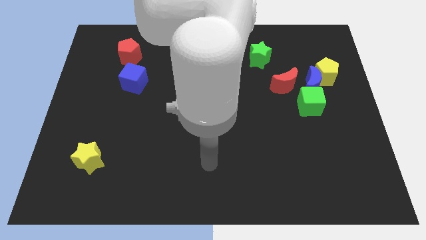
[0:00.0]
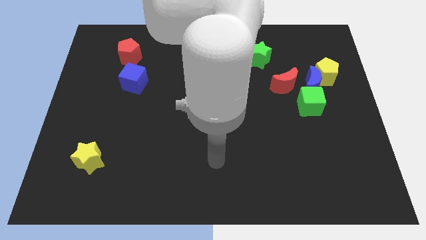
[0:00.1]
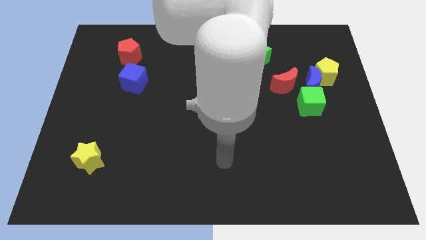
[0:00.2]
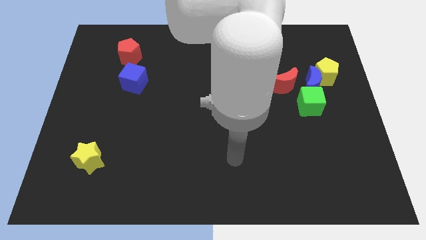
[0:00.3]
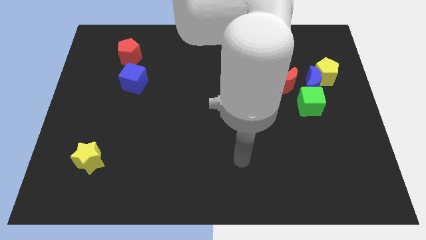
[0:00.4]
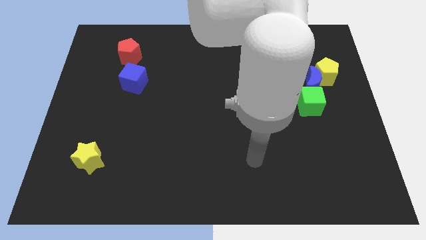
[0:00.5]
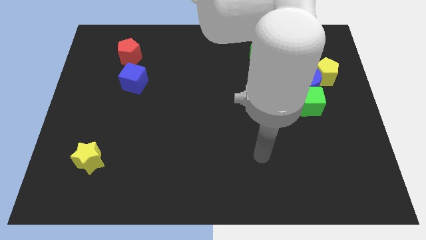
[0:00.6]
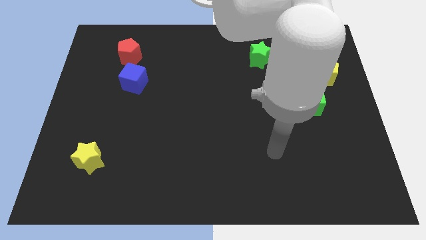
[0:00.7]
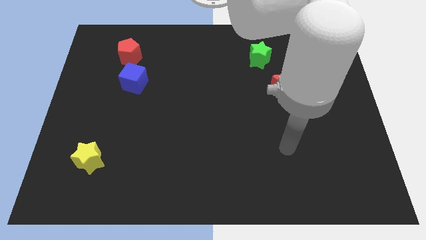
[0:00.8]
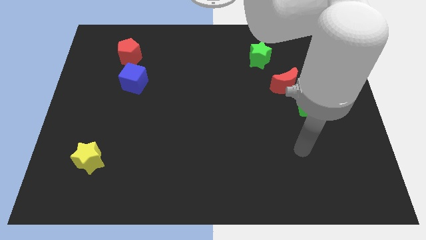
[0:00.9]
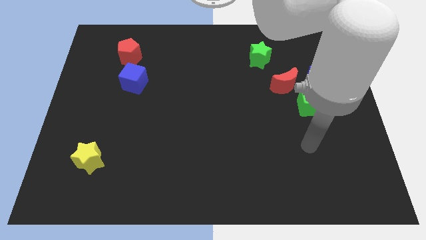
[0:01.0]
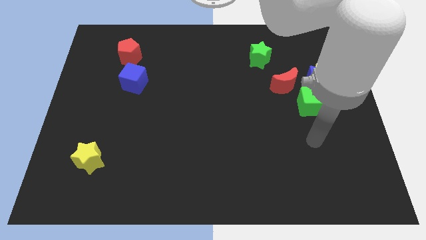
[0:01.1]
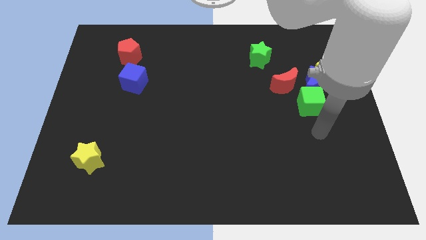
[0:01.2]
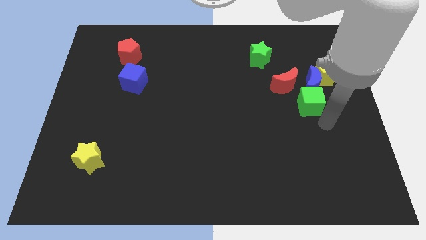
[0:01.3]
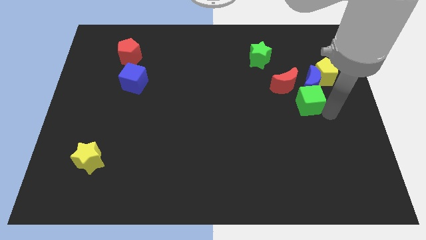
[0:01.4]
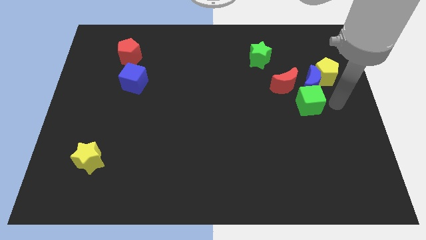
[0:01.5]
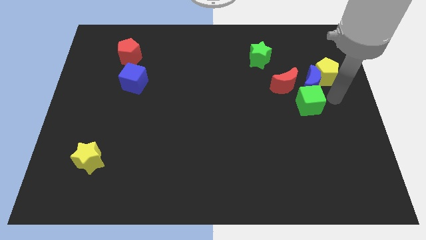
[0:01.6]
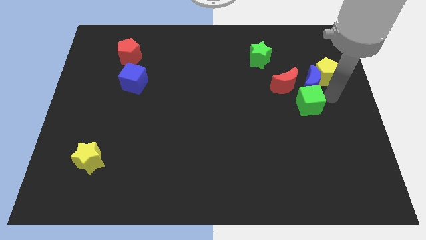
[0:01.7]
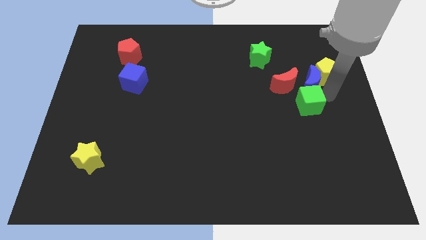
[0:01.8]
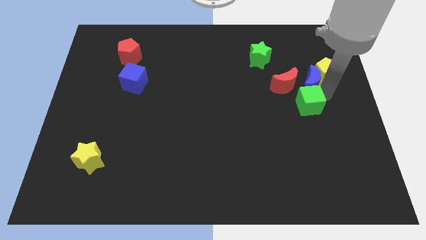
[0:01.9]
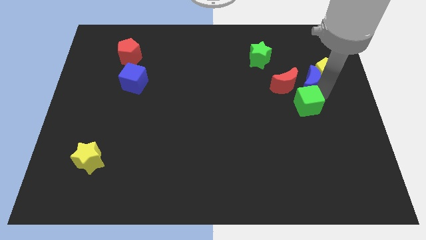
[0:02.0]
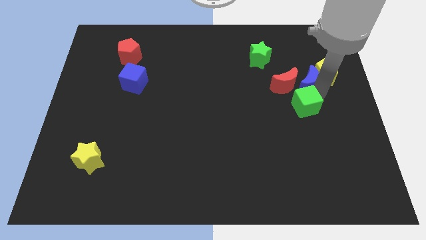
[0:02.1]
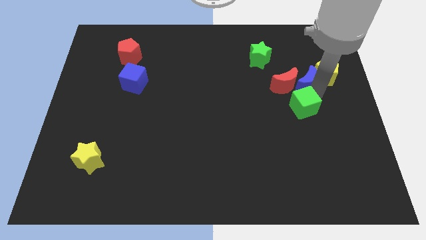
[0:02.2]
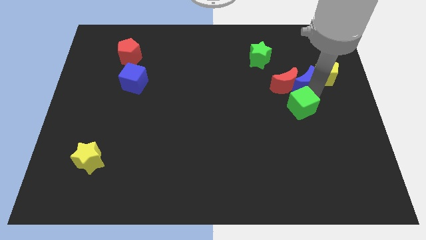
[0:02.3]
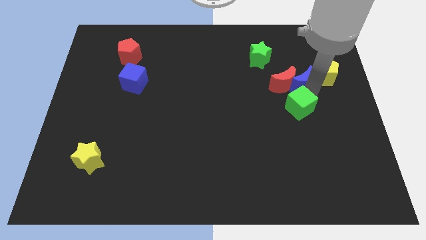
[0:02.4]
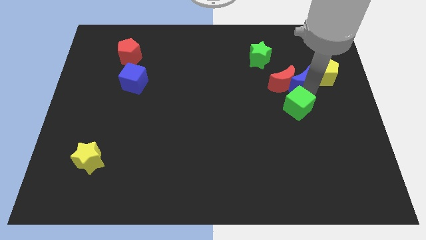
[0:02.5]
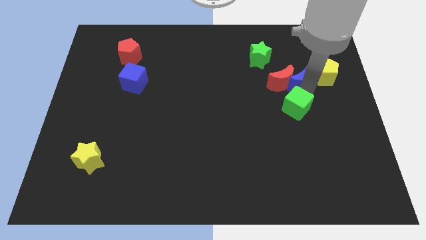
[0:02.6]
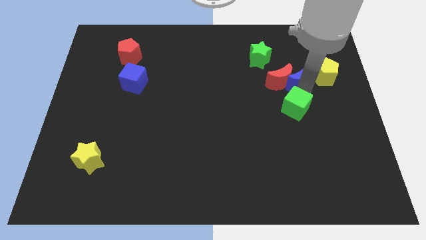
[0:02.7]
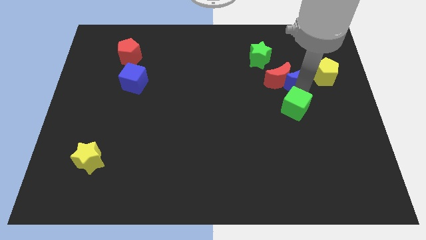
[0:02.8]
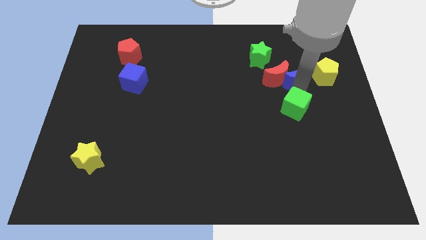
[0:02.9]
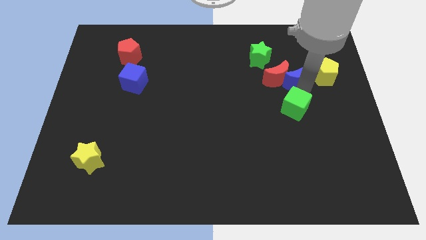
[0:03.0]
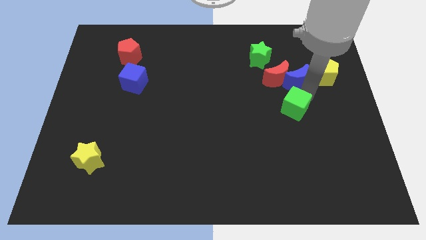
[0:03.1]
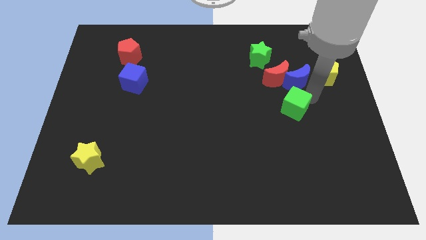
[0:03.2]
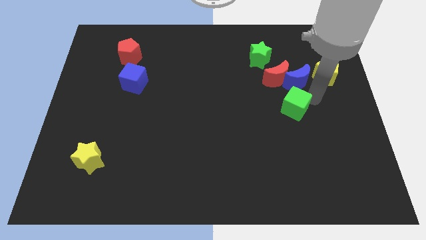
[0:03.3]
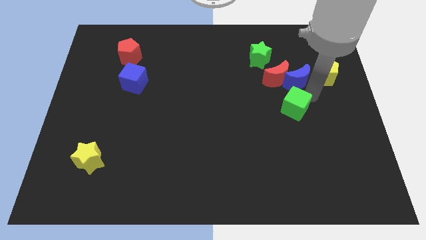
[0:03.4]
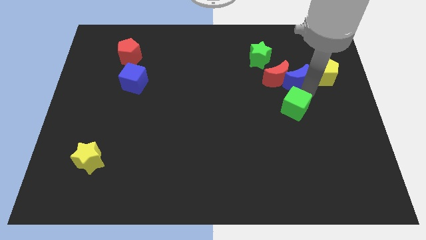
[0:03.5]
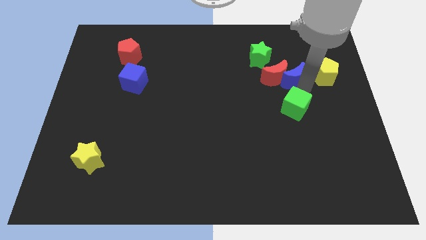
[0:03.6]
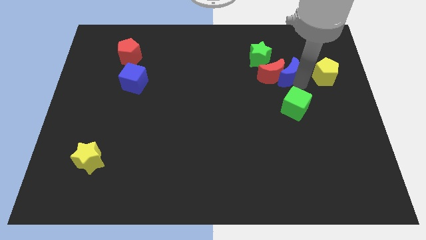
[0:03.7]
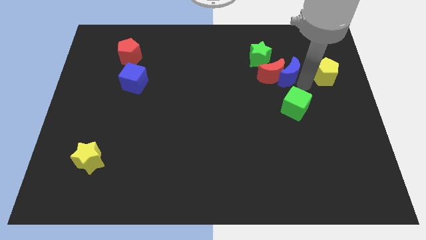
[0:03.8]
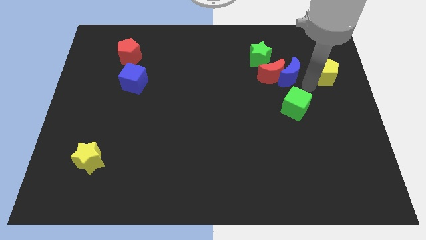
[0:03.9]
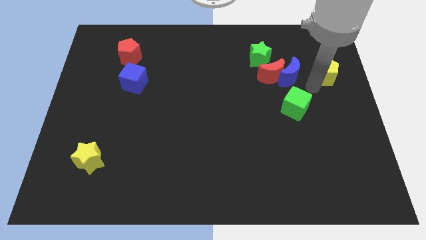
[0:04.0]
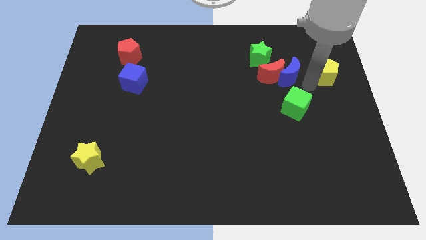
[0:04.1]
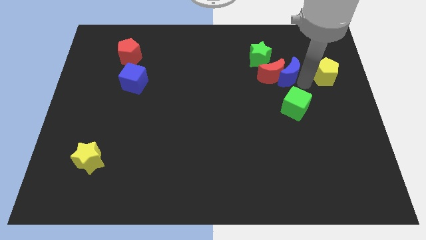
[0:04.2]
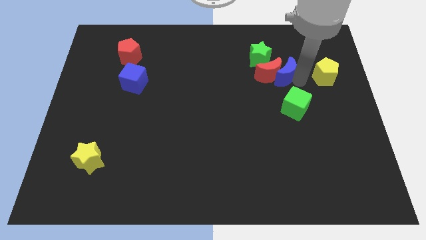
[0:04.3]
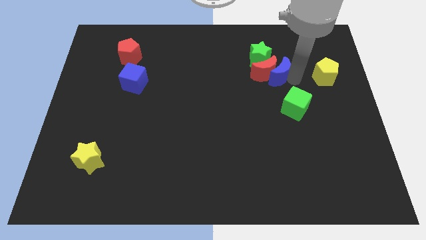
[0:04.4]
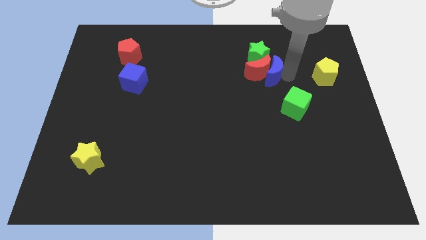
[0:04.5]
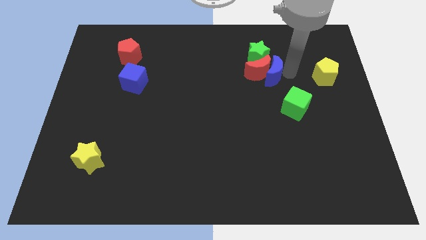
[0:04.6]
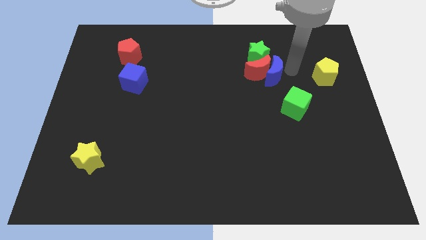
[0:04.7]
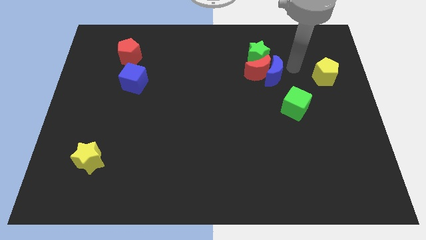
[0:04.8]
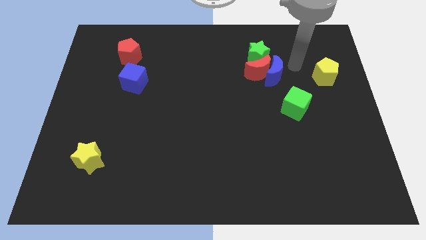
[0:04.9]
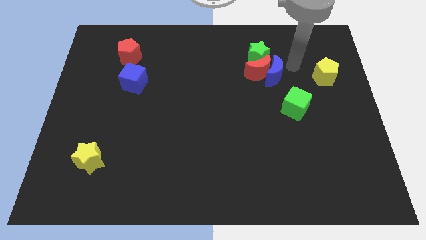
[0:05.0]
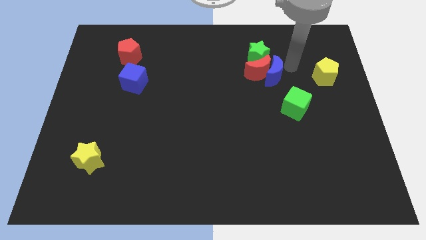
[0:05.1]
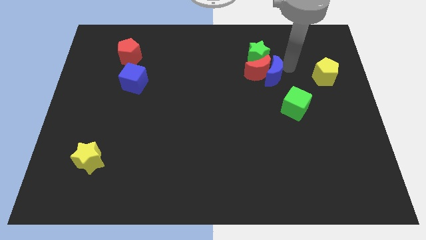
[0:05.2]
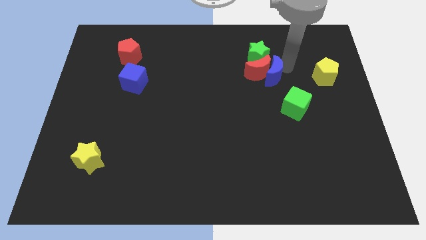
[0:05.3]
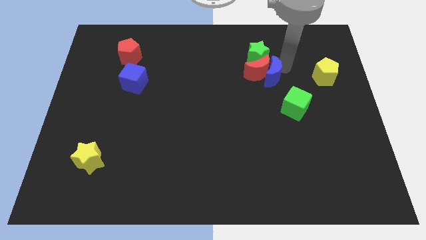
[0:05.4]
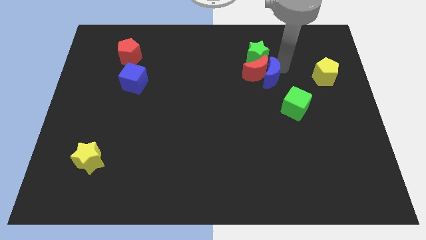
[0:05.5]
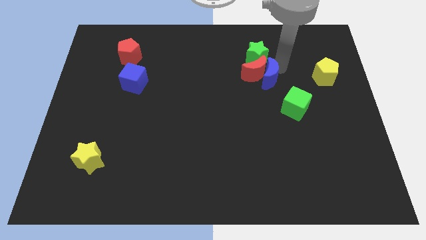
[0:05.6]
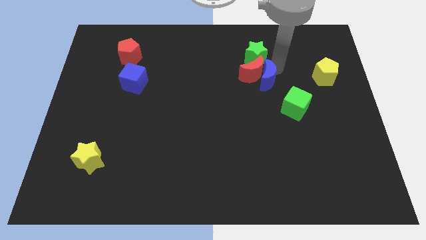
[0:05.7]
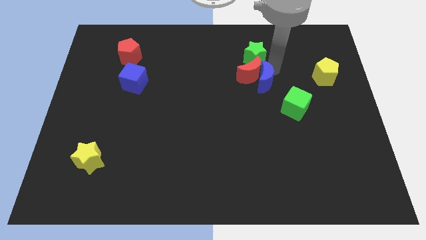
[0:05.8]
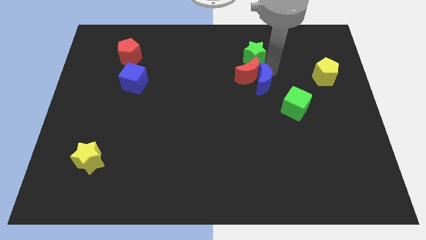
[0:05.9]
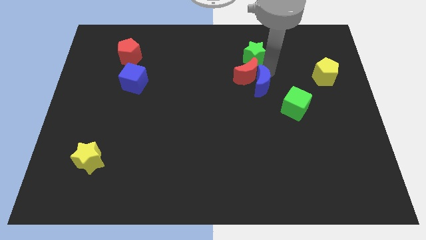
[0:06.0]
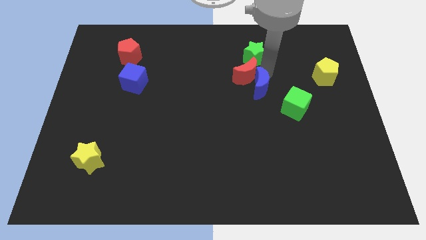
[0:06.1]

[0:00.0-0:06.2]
slide the blue moon to the center

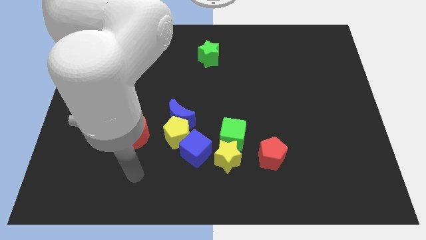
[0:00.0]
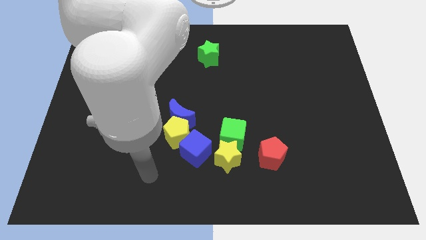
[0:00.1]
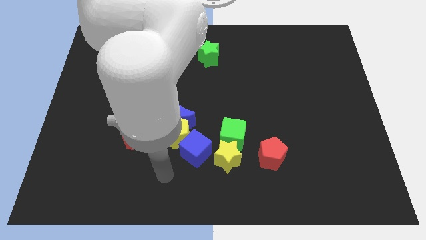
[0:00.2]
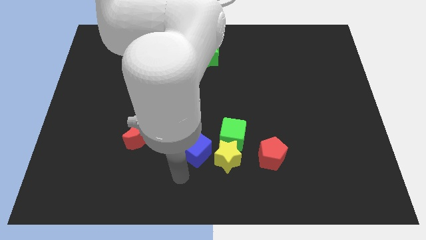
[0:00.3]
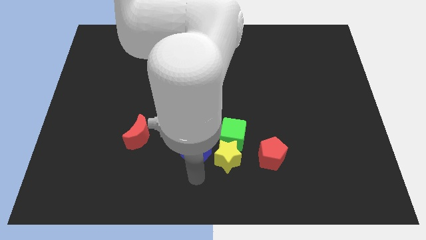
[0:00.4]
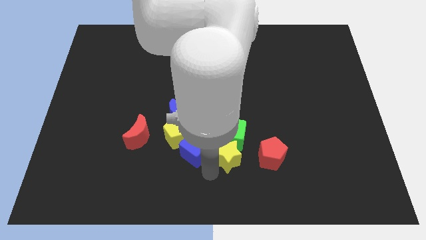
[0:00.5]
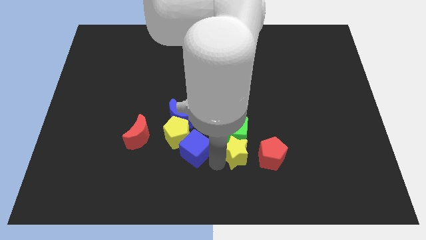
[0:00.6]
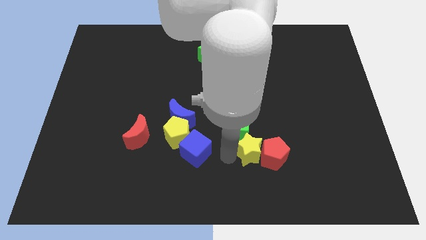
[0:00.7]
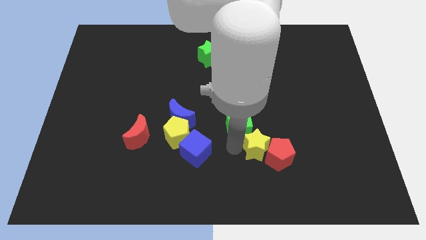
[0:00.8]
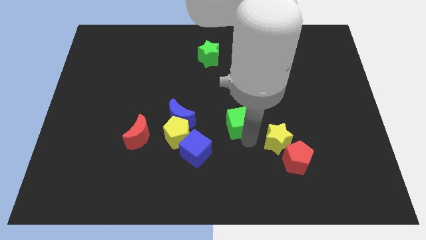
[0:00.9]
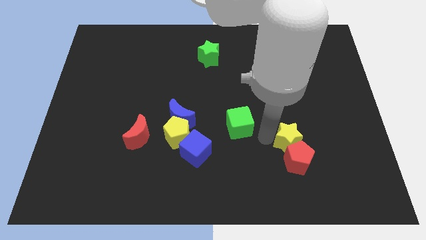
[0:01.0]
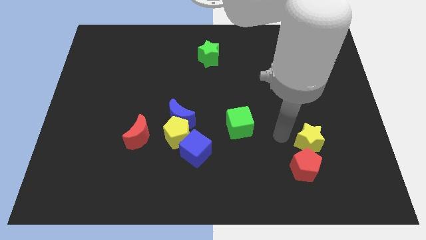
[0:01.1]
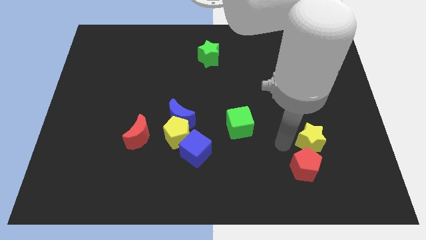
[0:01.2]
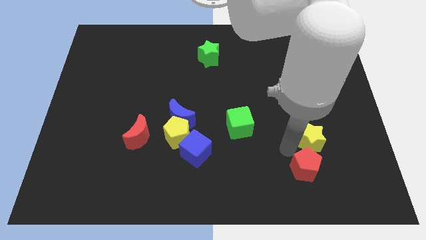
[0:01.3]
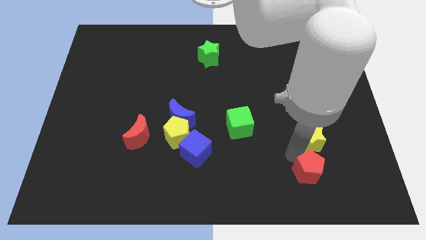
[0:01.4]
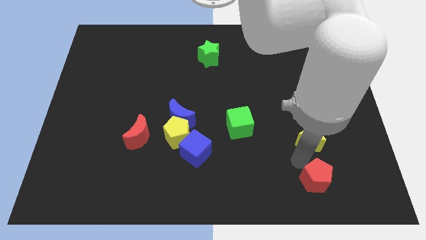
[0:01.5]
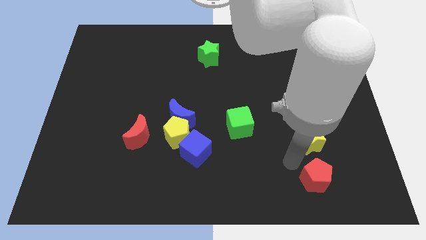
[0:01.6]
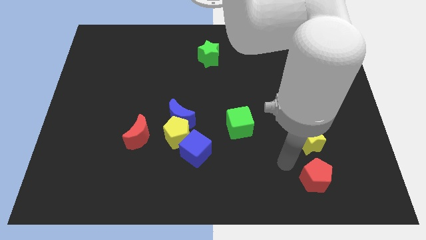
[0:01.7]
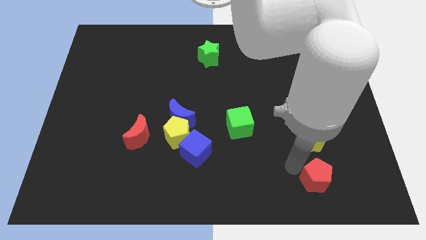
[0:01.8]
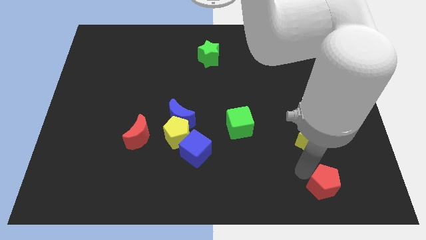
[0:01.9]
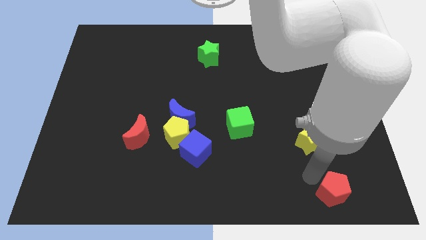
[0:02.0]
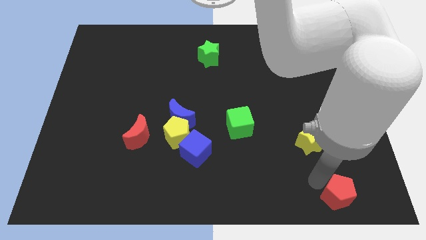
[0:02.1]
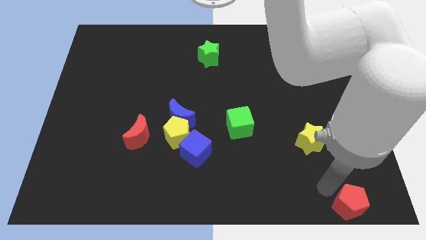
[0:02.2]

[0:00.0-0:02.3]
put the red pentagon to the bottom right
